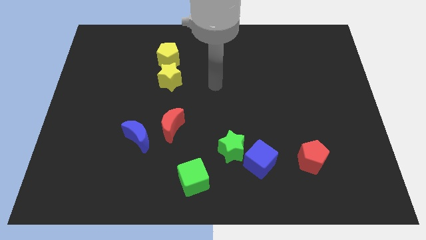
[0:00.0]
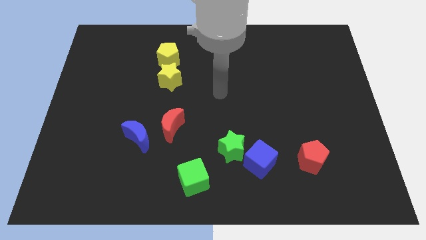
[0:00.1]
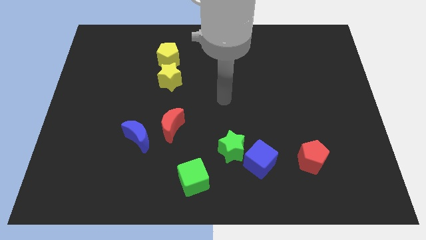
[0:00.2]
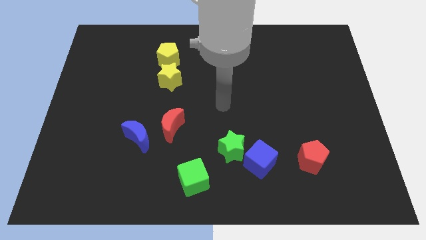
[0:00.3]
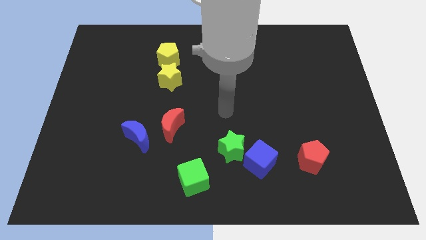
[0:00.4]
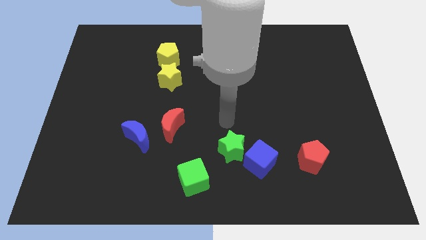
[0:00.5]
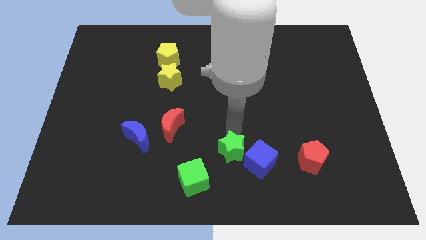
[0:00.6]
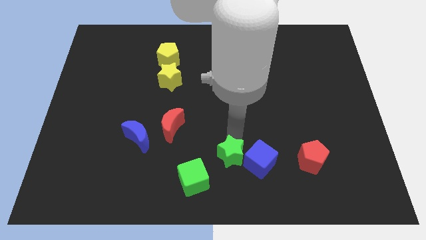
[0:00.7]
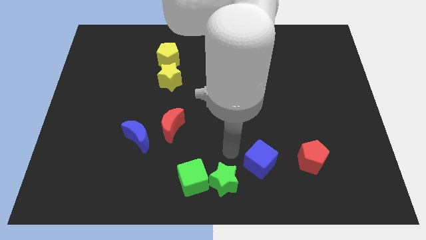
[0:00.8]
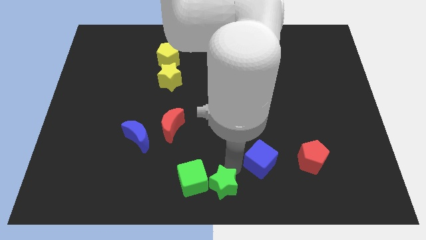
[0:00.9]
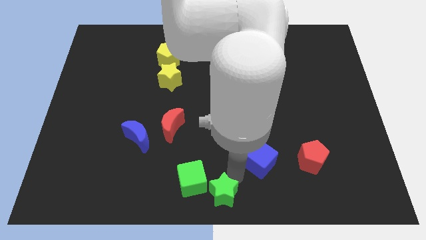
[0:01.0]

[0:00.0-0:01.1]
pull the blue cube apart from the green star

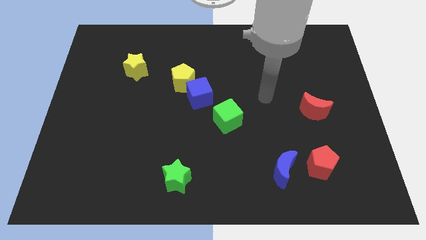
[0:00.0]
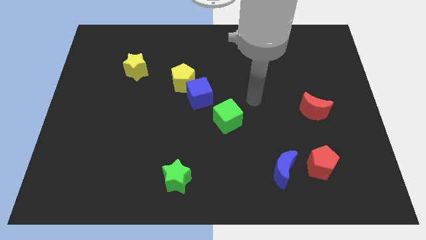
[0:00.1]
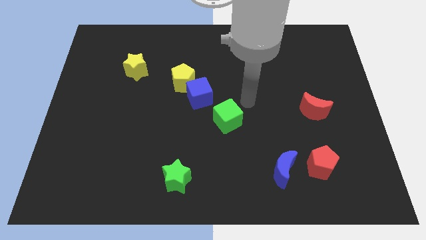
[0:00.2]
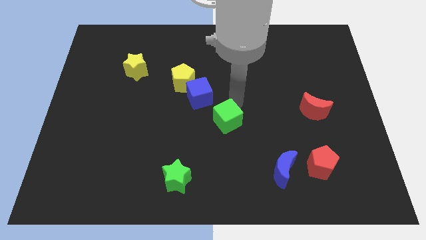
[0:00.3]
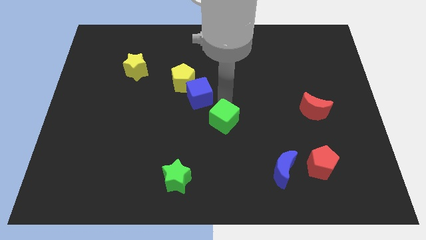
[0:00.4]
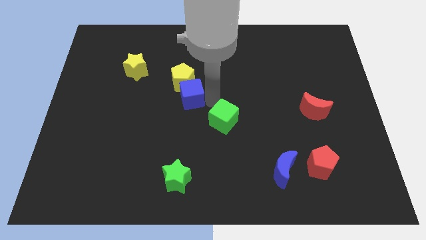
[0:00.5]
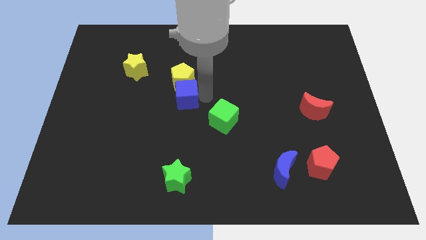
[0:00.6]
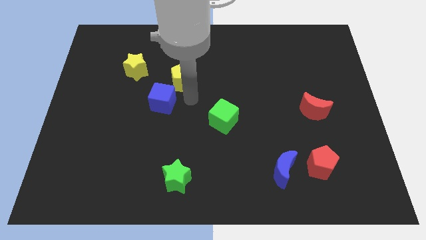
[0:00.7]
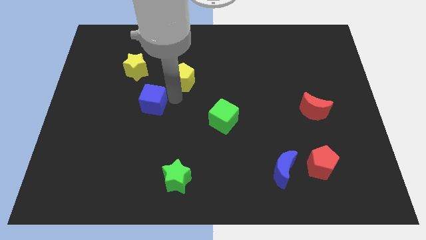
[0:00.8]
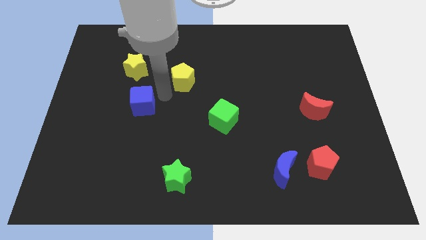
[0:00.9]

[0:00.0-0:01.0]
move the yellow pentagon away from the blue cube

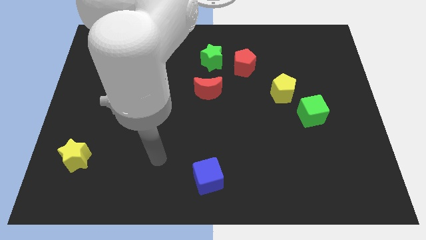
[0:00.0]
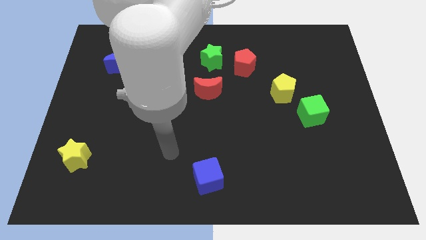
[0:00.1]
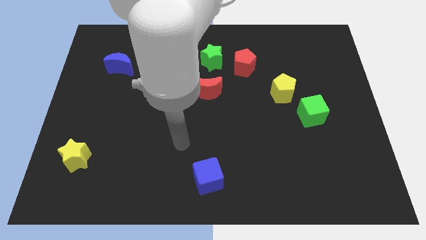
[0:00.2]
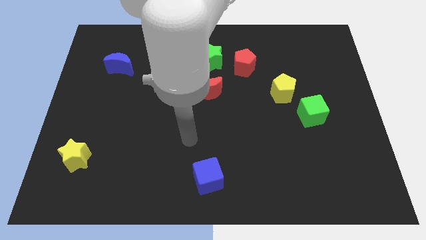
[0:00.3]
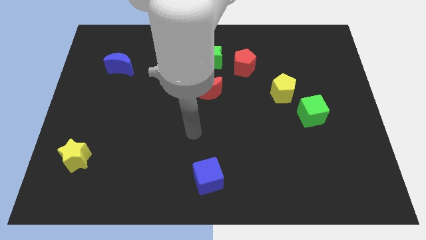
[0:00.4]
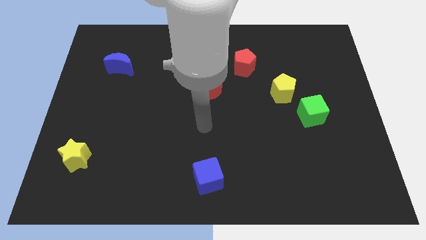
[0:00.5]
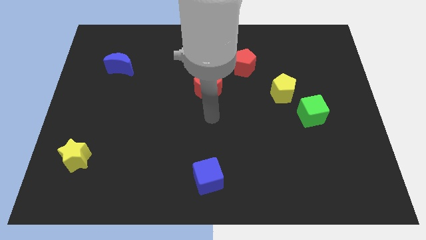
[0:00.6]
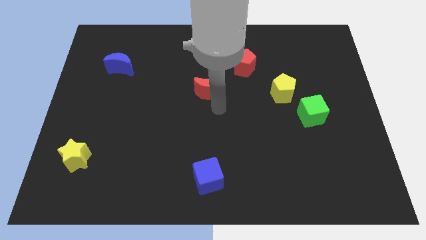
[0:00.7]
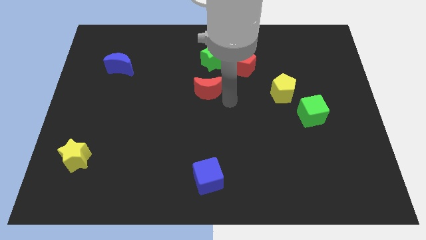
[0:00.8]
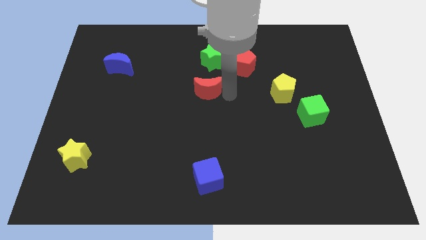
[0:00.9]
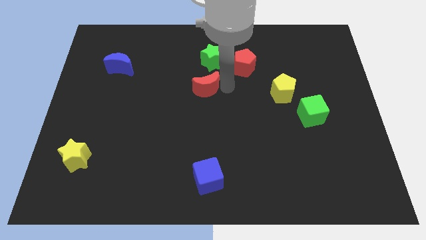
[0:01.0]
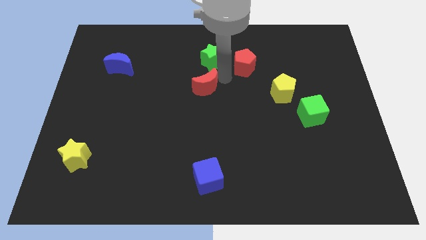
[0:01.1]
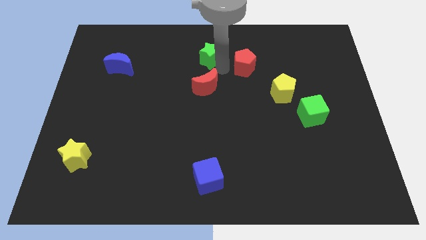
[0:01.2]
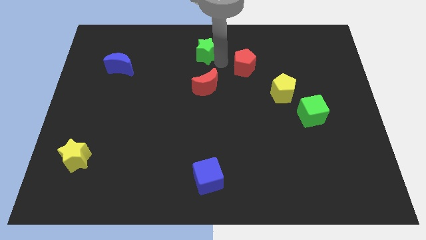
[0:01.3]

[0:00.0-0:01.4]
separate the red pentagon from the green star

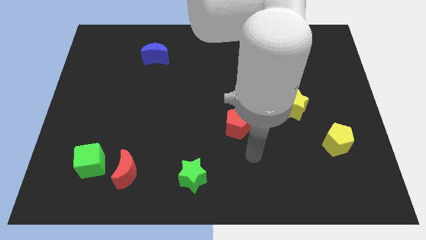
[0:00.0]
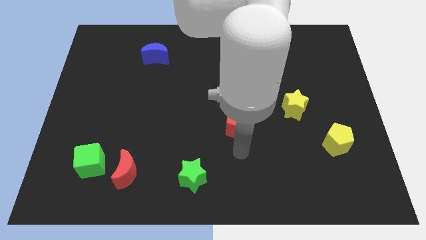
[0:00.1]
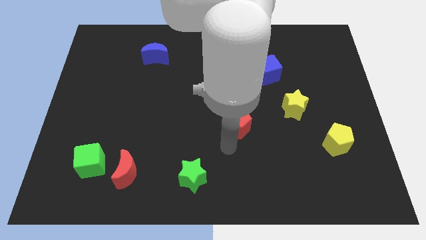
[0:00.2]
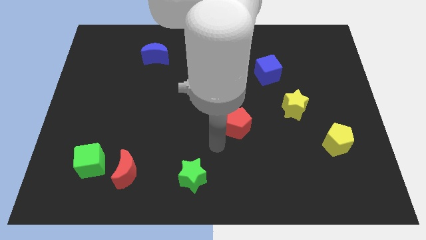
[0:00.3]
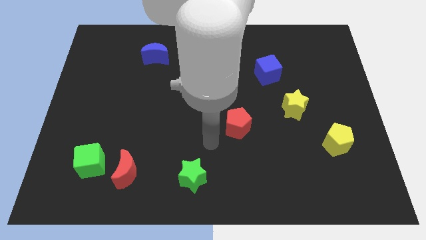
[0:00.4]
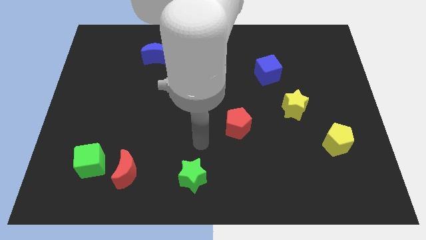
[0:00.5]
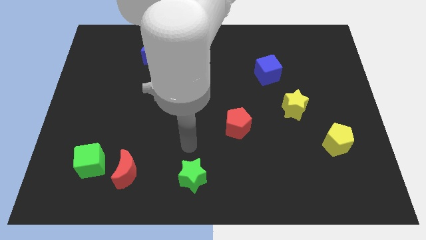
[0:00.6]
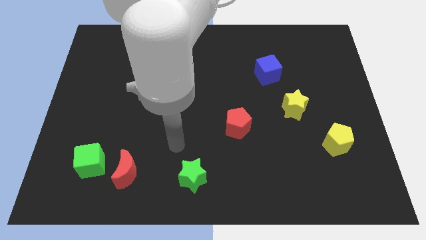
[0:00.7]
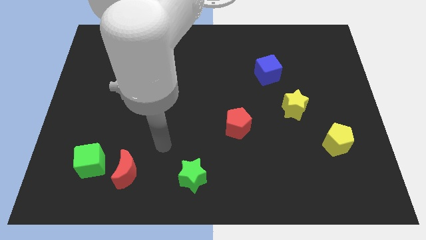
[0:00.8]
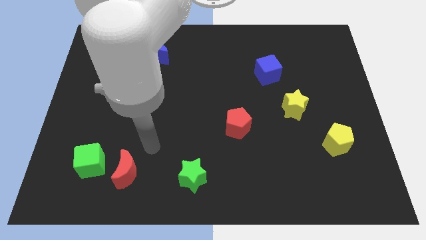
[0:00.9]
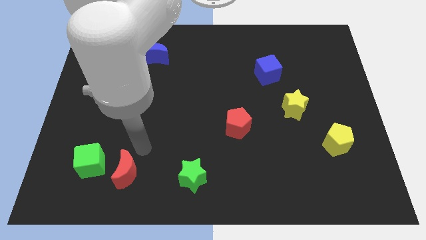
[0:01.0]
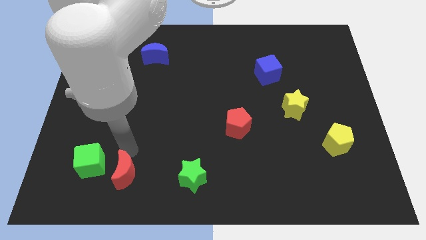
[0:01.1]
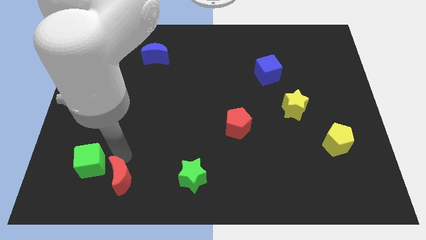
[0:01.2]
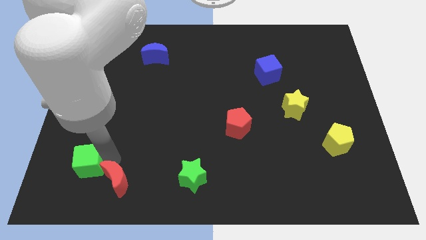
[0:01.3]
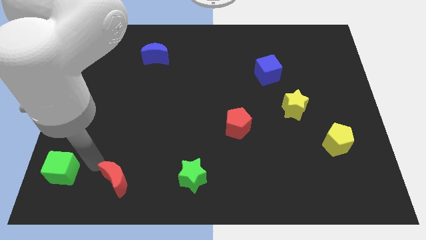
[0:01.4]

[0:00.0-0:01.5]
separate the red moon from the green cube

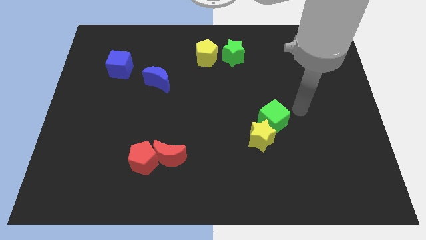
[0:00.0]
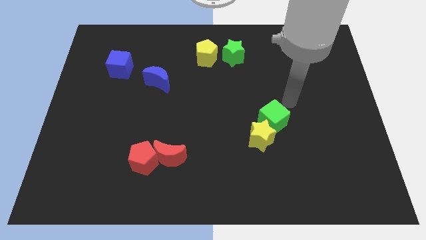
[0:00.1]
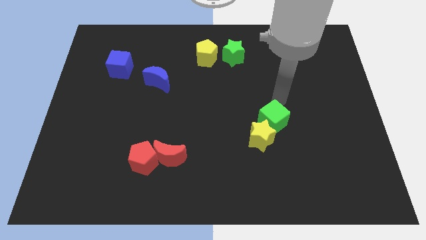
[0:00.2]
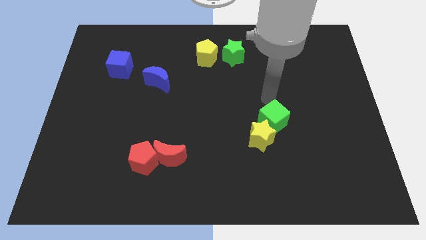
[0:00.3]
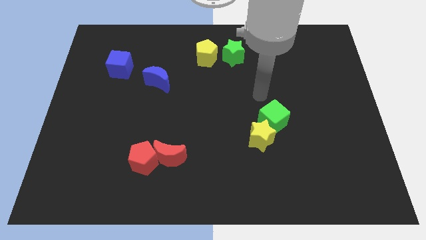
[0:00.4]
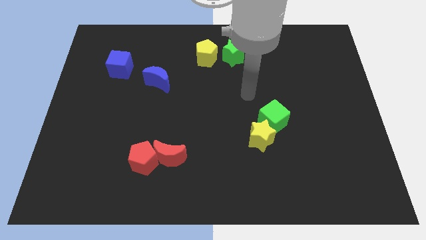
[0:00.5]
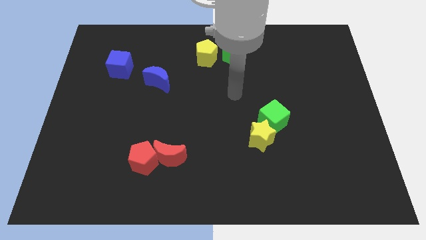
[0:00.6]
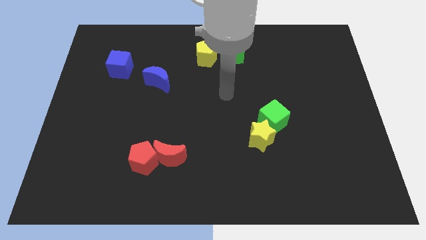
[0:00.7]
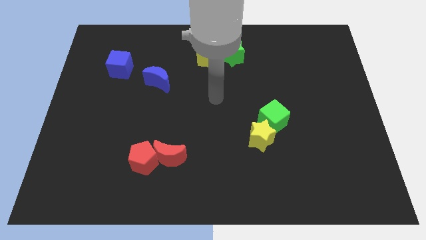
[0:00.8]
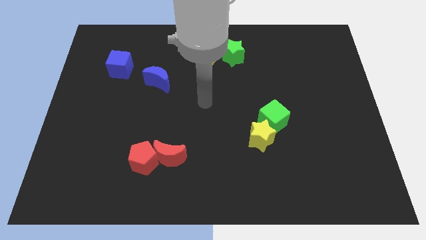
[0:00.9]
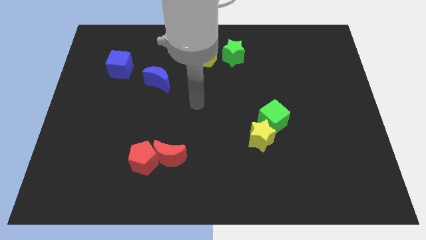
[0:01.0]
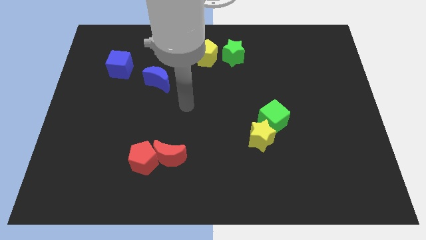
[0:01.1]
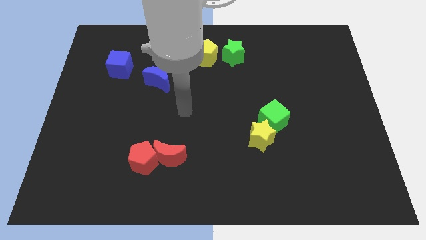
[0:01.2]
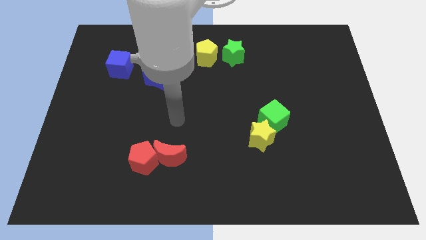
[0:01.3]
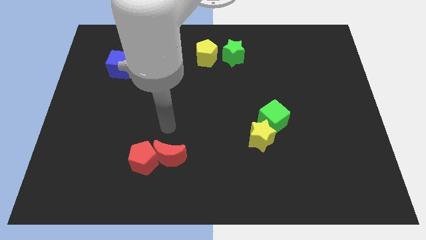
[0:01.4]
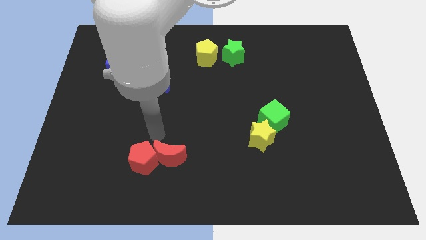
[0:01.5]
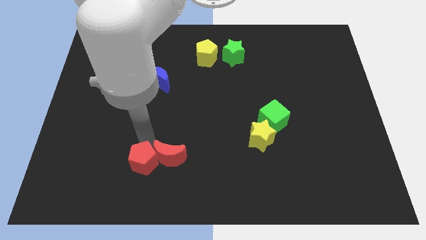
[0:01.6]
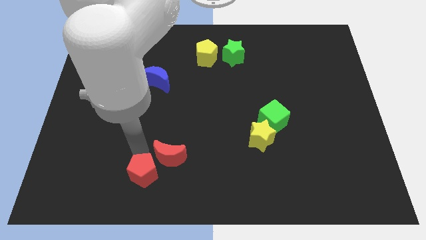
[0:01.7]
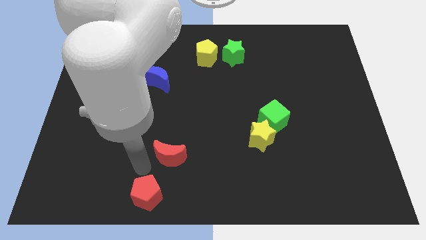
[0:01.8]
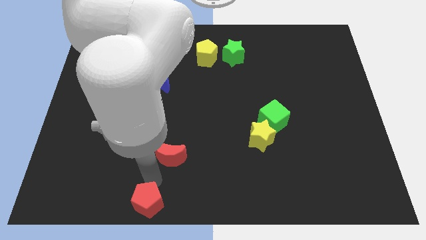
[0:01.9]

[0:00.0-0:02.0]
move the red moon away from the red pentagon

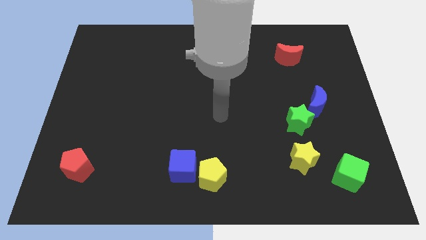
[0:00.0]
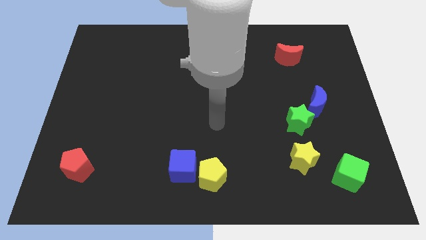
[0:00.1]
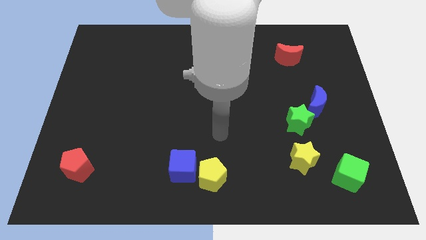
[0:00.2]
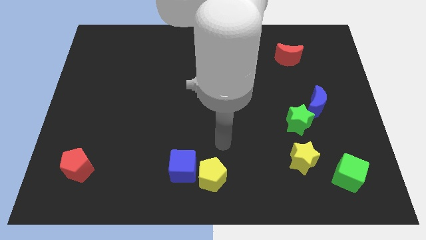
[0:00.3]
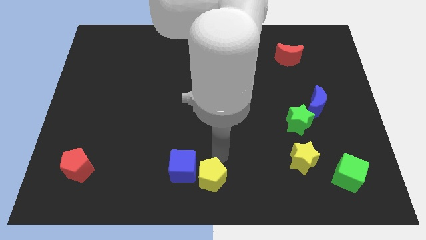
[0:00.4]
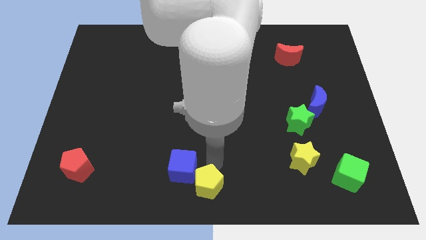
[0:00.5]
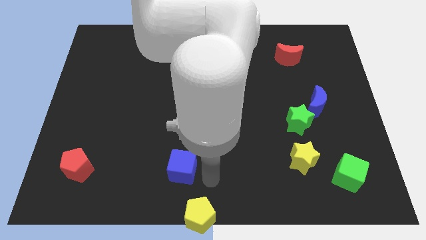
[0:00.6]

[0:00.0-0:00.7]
move the blue cube away from the yellow pentagon

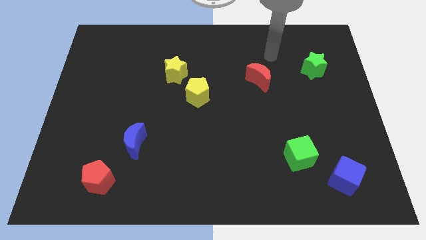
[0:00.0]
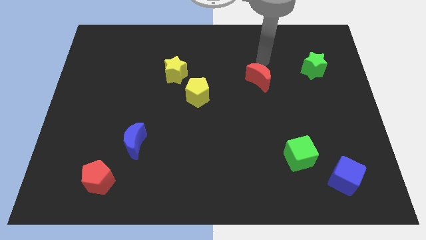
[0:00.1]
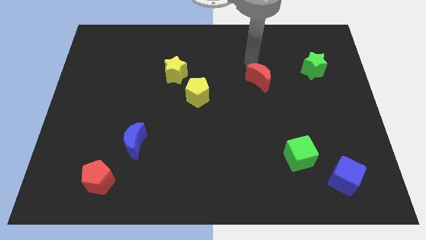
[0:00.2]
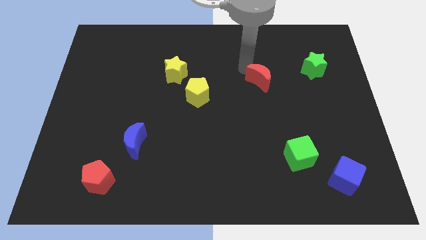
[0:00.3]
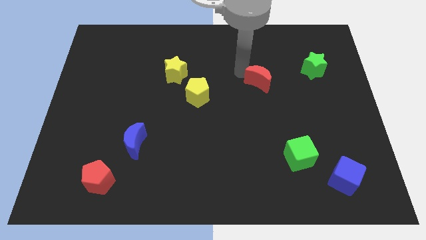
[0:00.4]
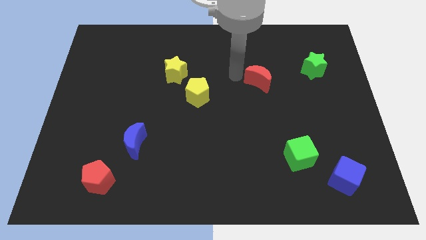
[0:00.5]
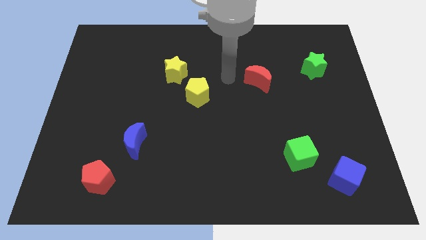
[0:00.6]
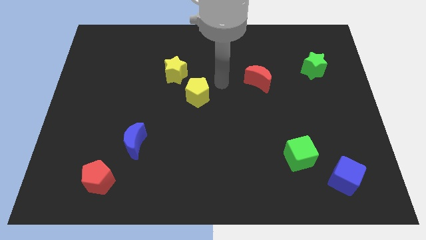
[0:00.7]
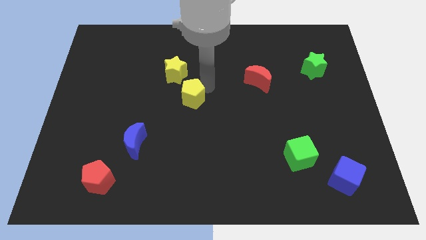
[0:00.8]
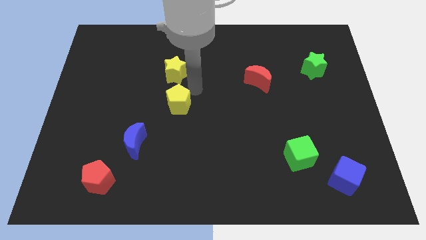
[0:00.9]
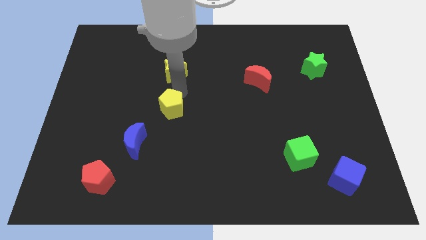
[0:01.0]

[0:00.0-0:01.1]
move the yellow star away from the yellow pentagon

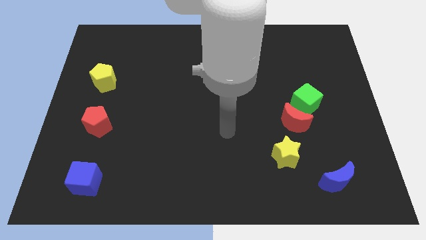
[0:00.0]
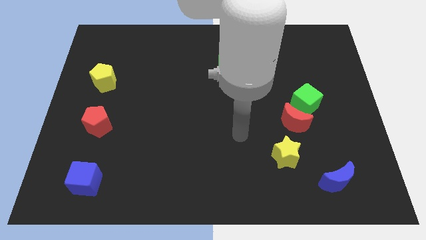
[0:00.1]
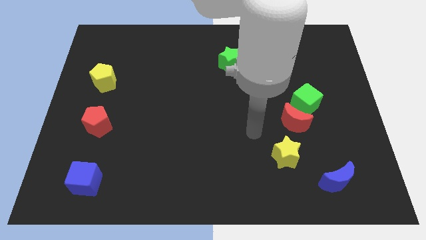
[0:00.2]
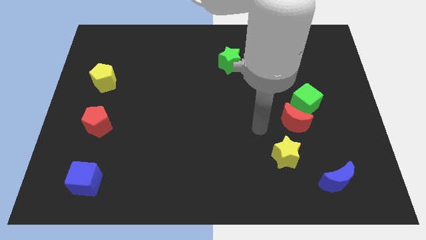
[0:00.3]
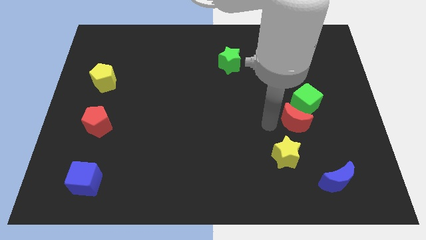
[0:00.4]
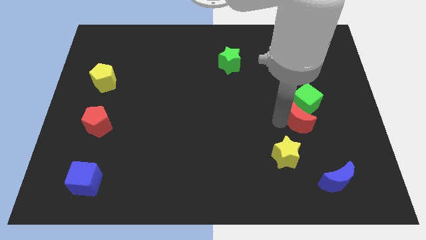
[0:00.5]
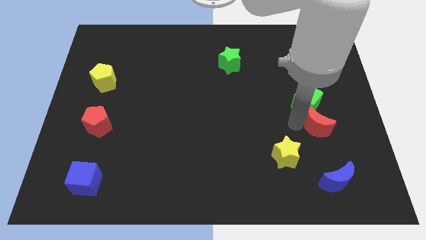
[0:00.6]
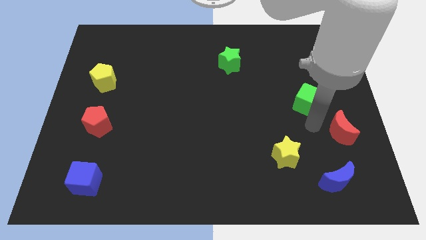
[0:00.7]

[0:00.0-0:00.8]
pull the green cube apart from the red moon
